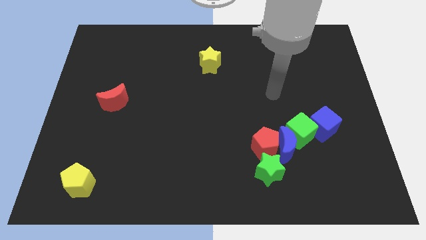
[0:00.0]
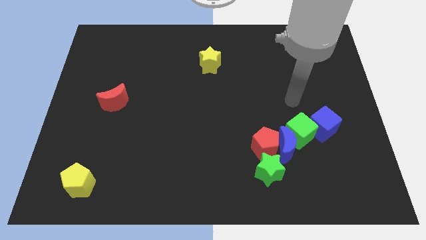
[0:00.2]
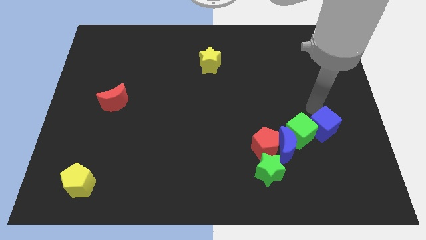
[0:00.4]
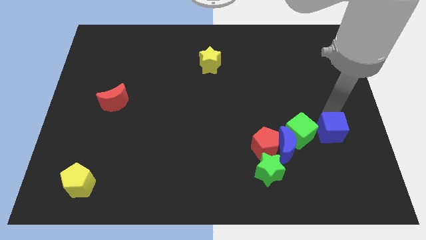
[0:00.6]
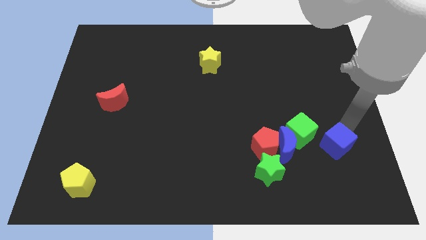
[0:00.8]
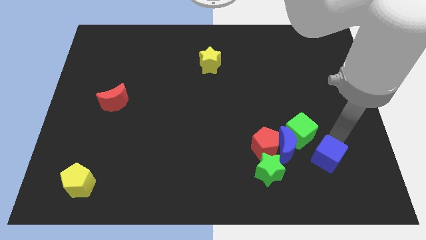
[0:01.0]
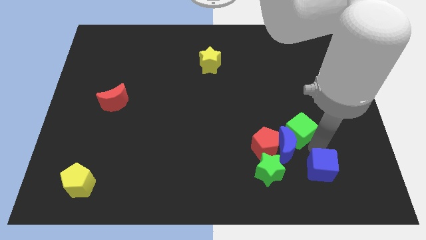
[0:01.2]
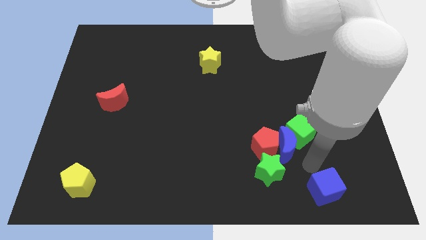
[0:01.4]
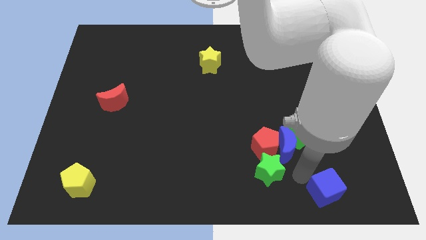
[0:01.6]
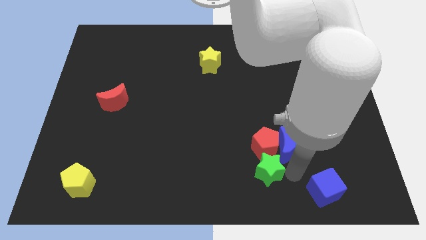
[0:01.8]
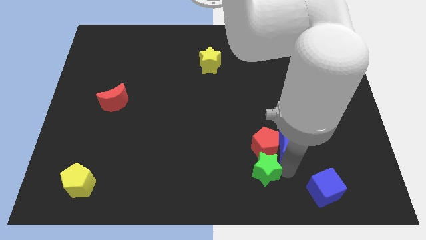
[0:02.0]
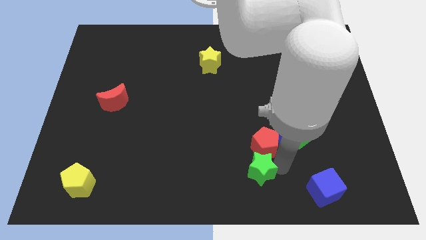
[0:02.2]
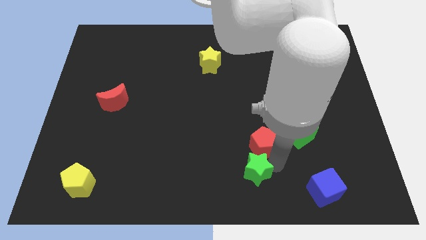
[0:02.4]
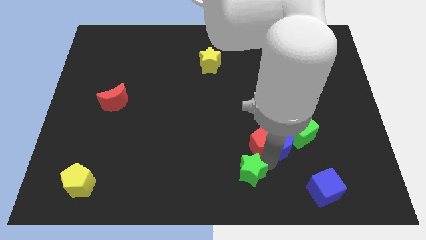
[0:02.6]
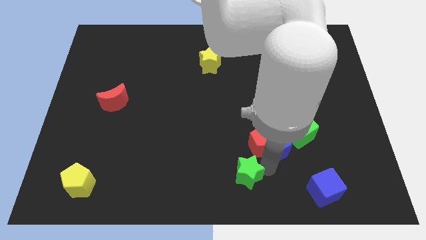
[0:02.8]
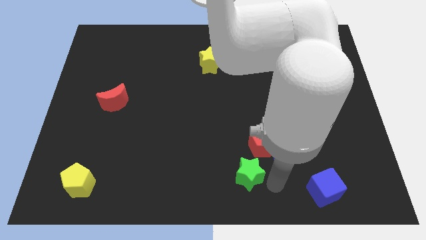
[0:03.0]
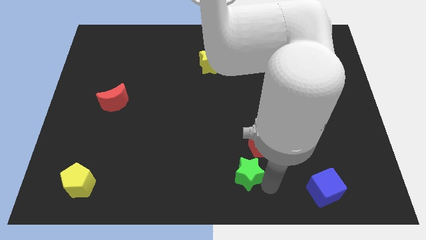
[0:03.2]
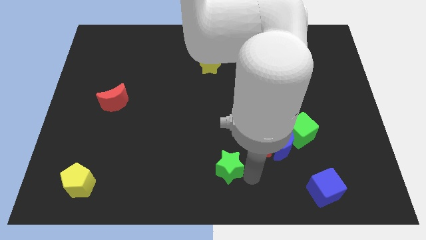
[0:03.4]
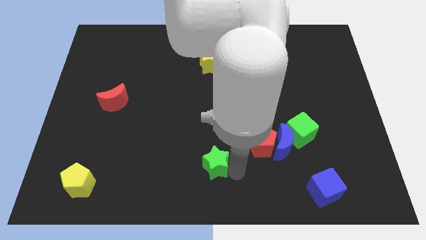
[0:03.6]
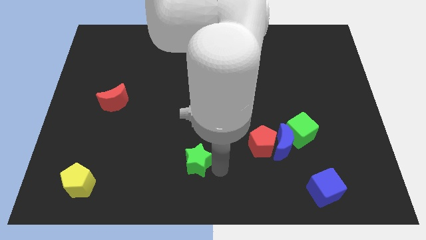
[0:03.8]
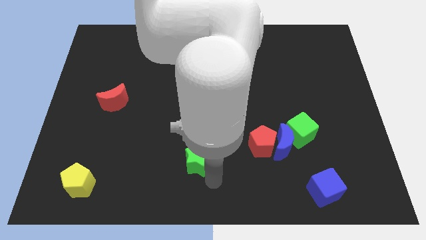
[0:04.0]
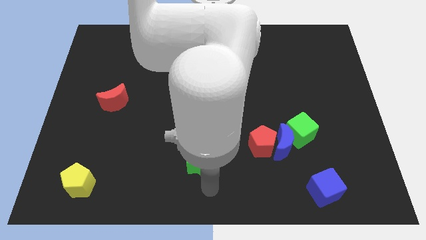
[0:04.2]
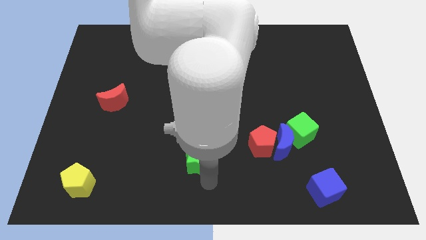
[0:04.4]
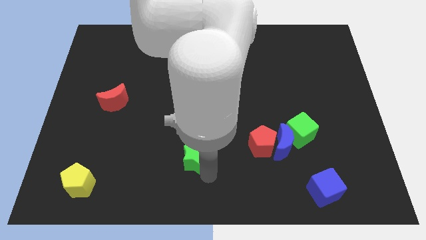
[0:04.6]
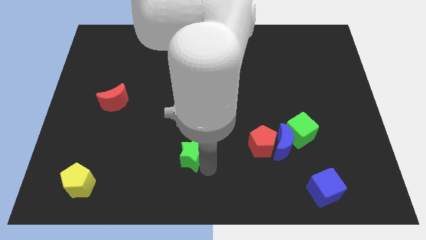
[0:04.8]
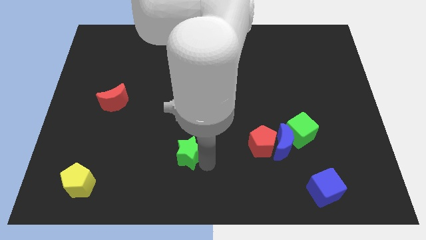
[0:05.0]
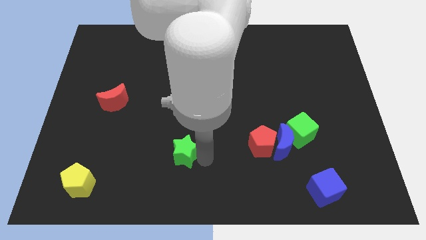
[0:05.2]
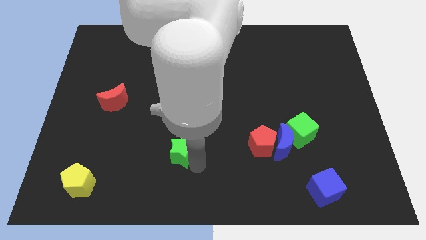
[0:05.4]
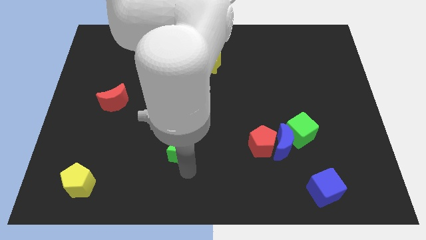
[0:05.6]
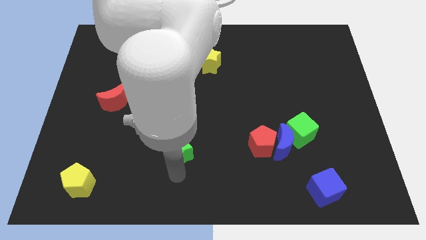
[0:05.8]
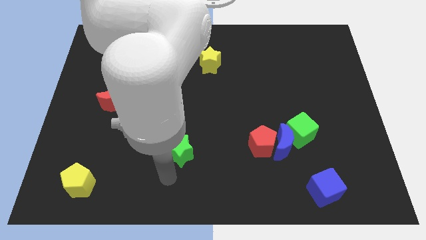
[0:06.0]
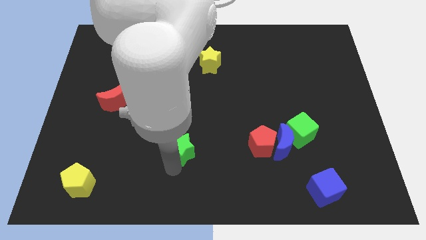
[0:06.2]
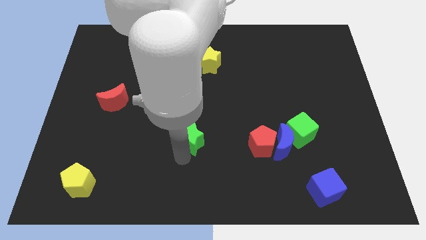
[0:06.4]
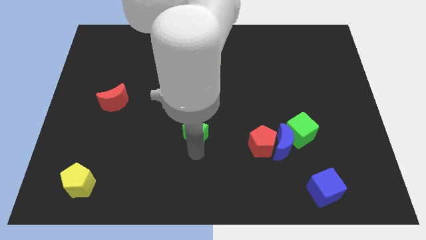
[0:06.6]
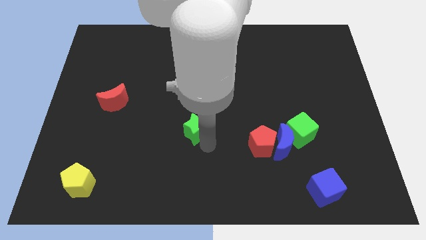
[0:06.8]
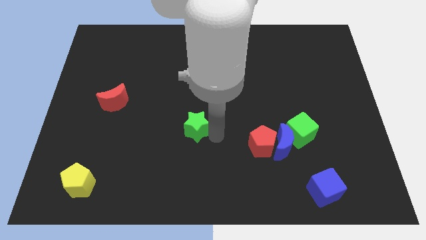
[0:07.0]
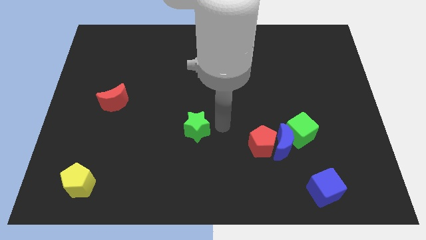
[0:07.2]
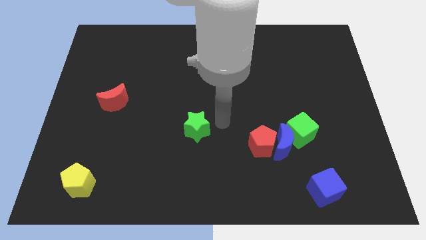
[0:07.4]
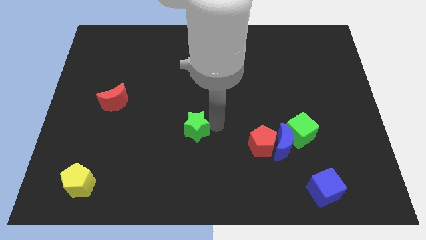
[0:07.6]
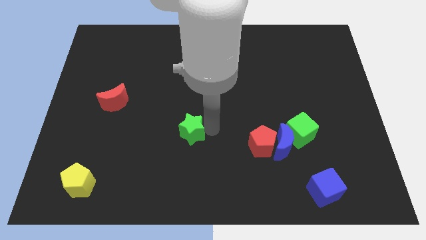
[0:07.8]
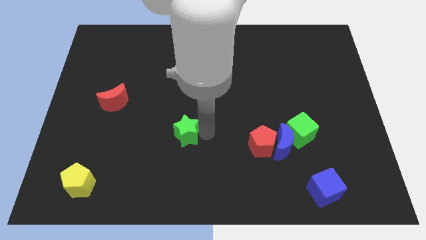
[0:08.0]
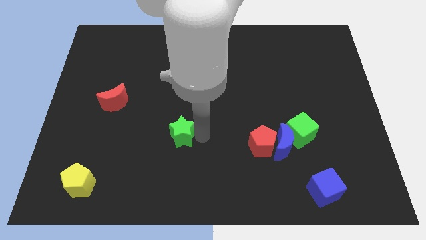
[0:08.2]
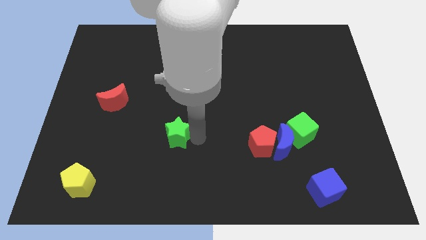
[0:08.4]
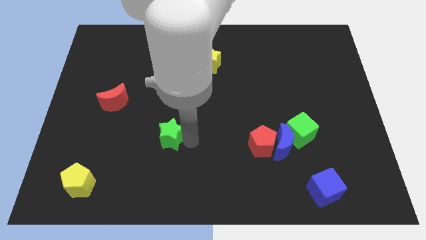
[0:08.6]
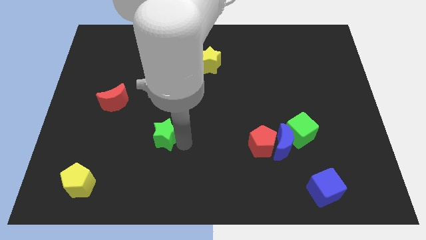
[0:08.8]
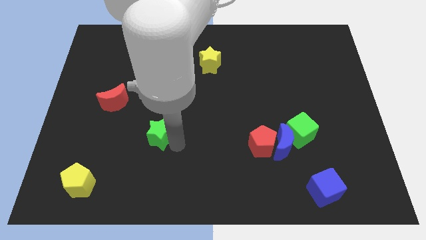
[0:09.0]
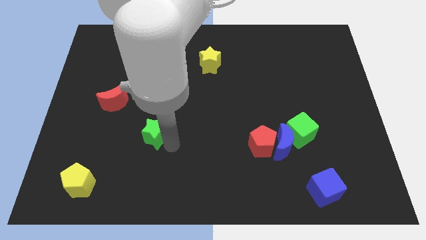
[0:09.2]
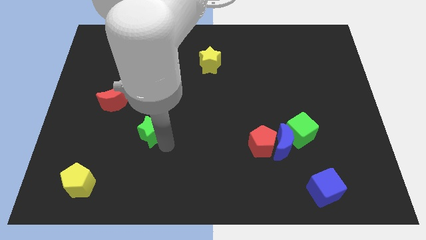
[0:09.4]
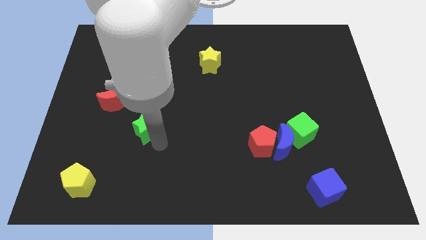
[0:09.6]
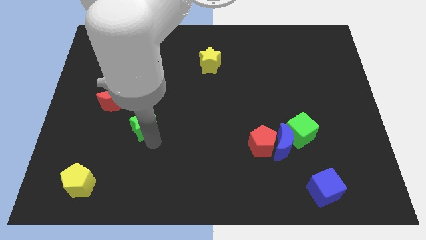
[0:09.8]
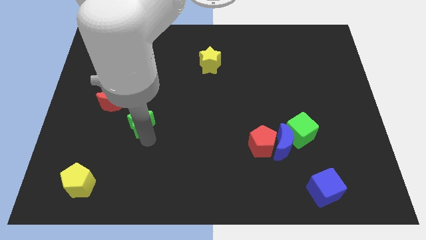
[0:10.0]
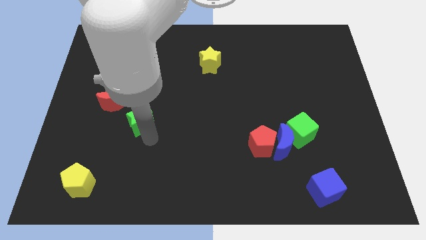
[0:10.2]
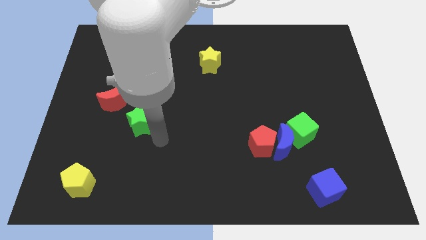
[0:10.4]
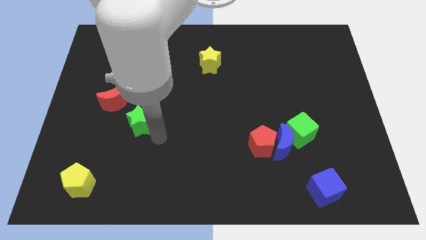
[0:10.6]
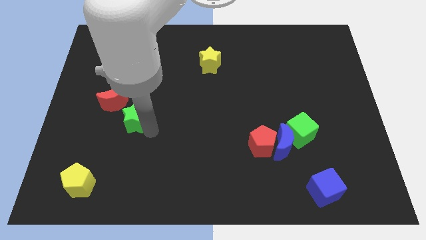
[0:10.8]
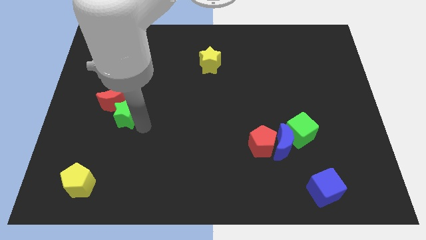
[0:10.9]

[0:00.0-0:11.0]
slide the green star close to the red moon

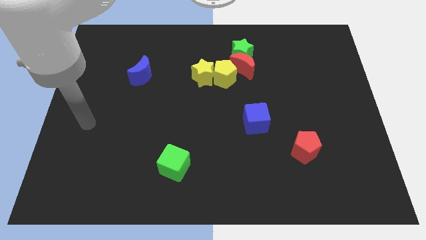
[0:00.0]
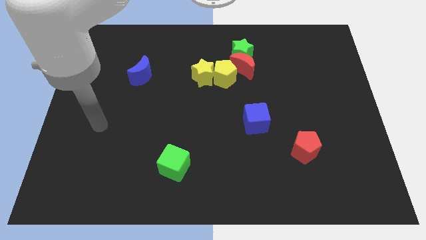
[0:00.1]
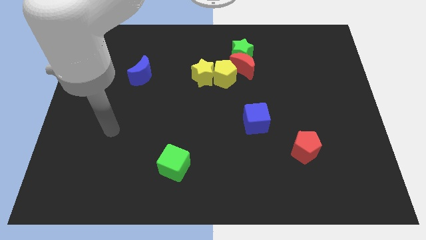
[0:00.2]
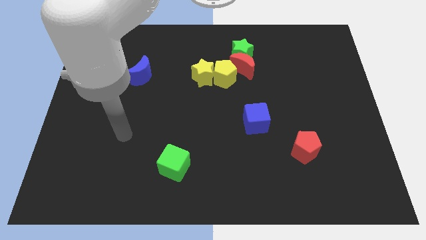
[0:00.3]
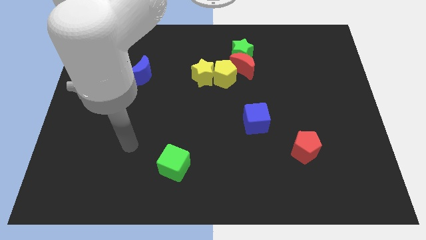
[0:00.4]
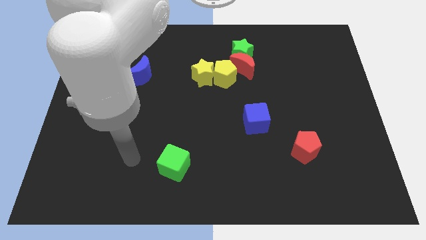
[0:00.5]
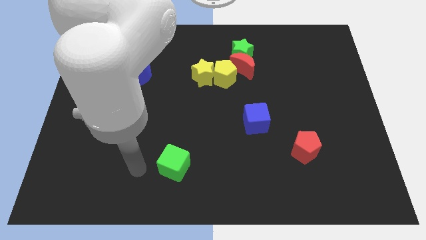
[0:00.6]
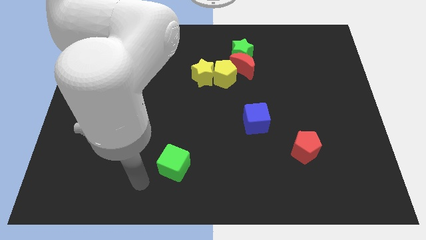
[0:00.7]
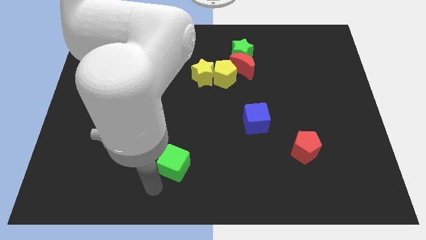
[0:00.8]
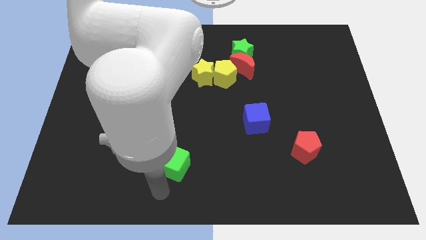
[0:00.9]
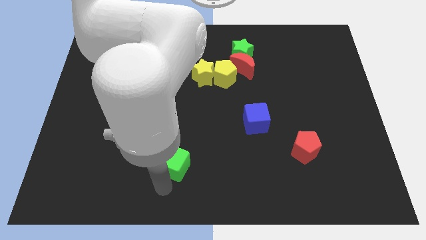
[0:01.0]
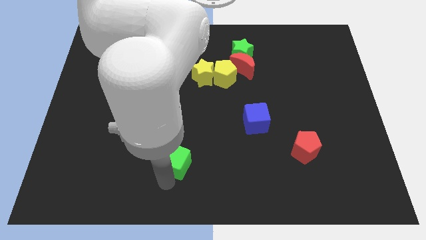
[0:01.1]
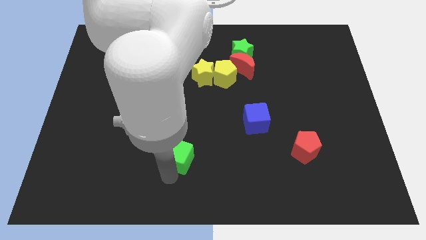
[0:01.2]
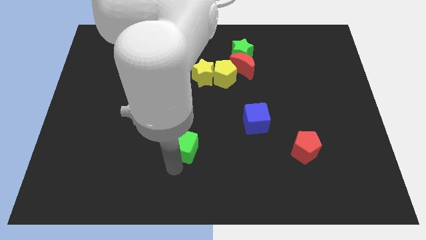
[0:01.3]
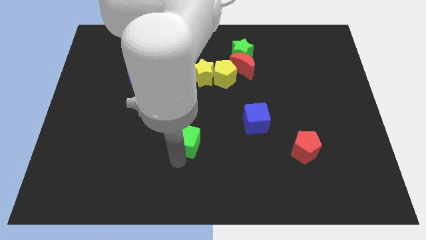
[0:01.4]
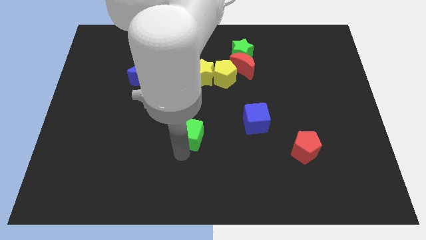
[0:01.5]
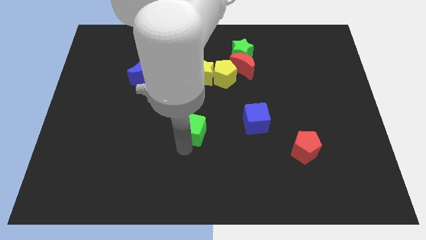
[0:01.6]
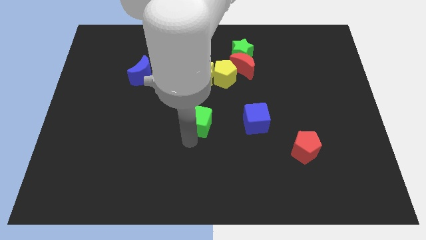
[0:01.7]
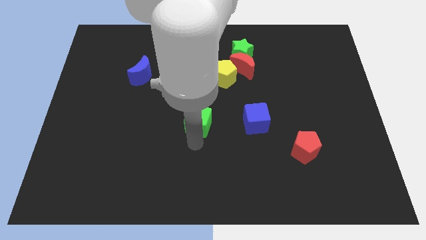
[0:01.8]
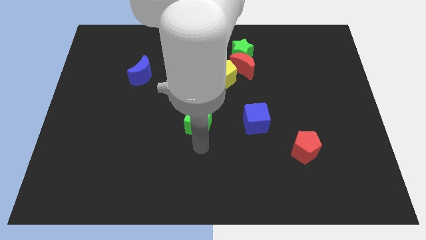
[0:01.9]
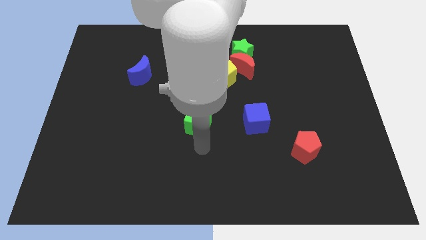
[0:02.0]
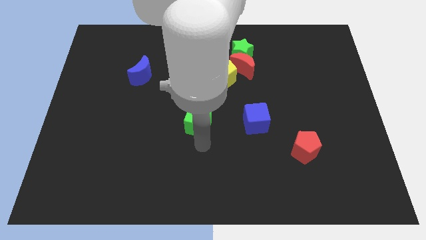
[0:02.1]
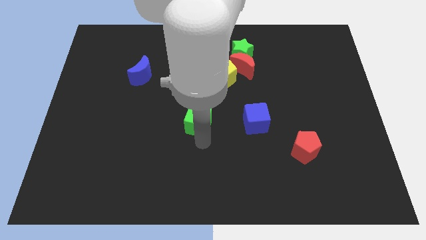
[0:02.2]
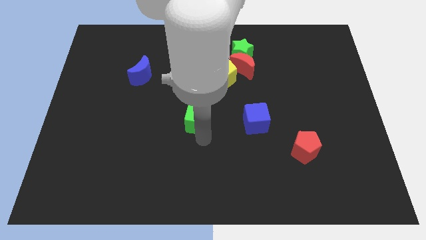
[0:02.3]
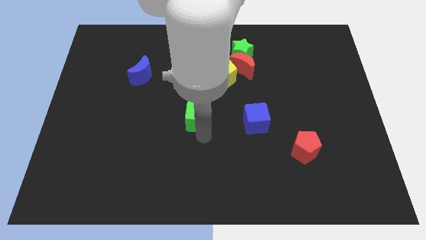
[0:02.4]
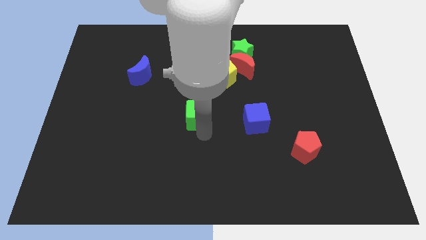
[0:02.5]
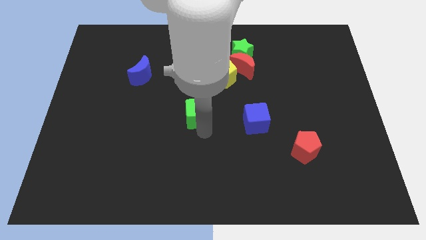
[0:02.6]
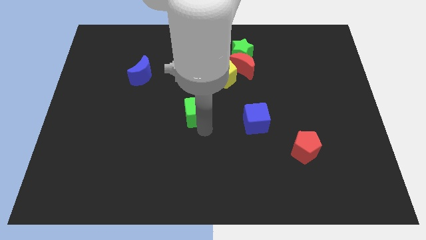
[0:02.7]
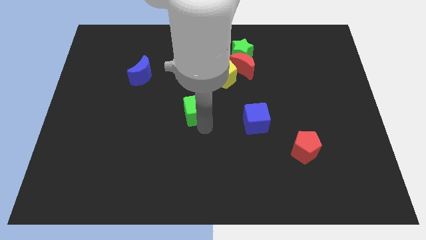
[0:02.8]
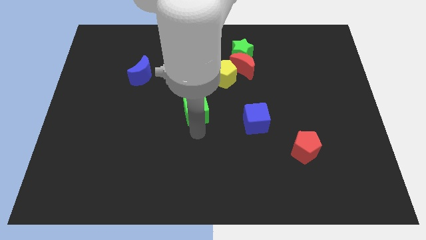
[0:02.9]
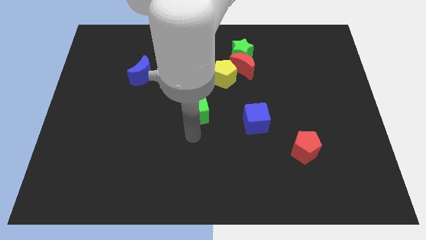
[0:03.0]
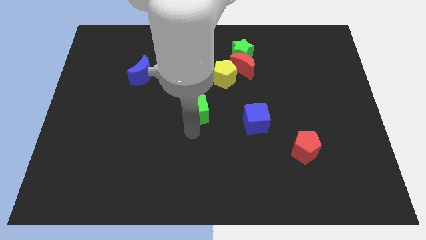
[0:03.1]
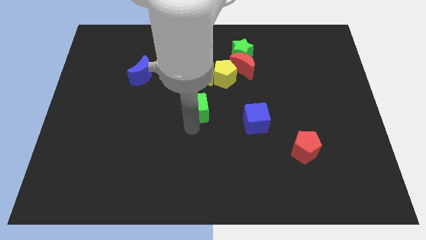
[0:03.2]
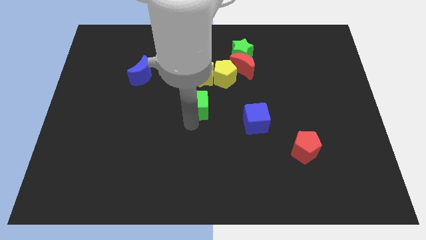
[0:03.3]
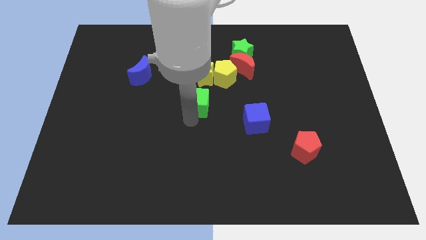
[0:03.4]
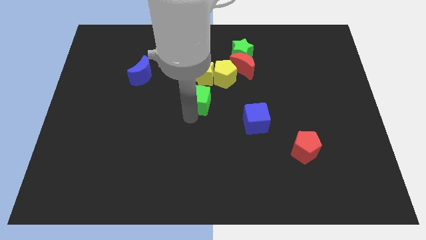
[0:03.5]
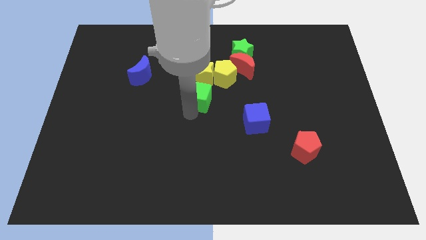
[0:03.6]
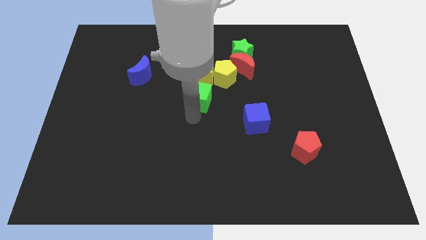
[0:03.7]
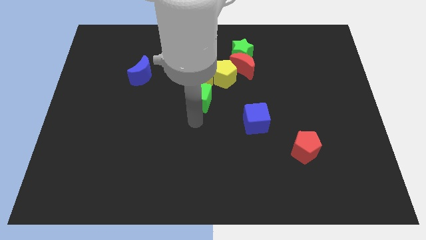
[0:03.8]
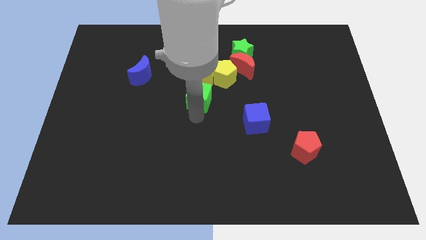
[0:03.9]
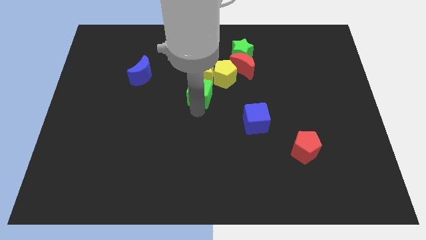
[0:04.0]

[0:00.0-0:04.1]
move the green cube to the yellow star
